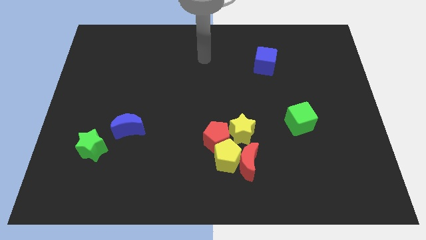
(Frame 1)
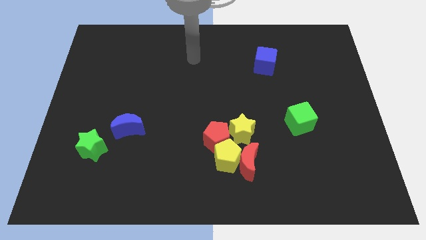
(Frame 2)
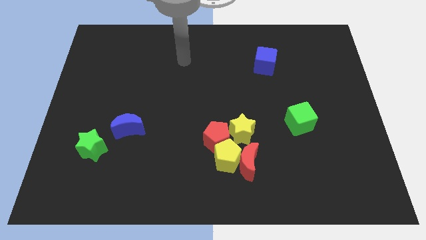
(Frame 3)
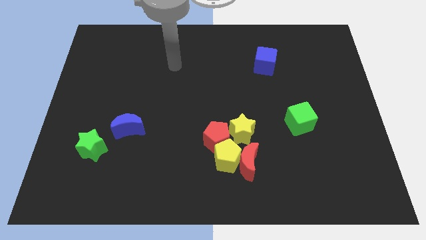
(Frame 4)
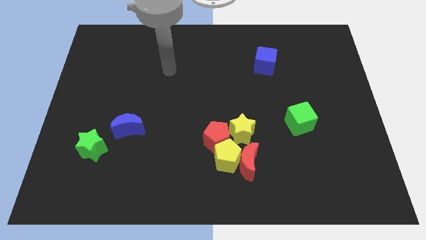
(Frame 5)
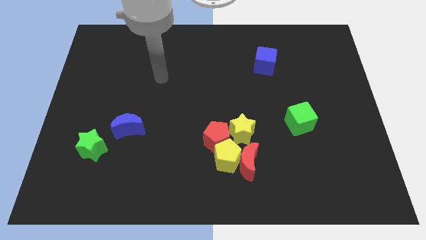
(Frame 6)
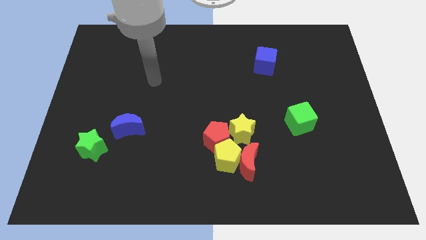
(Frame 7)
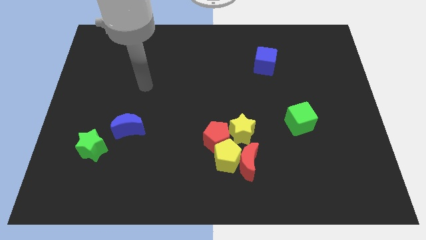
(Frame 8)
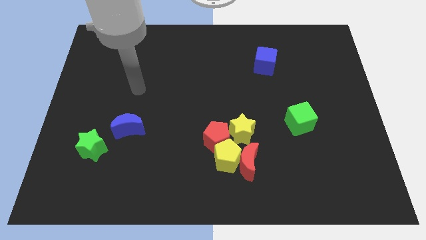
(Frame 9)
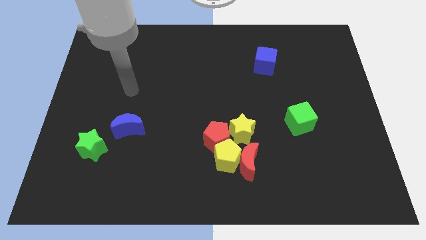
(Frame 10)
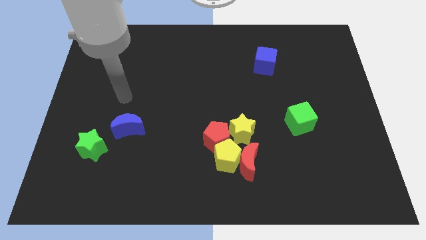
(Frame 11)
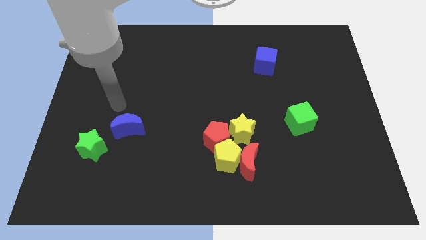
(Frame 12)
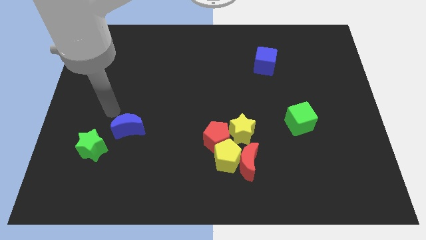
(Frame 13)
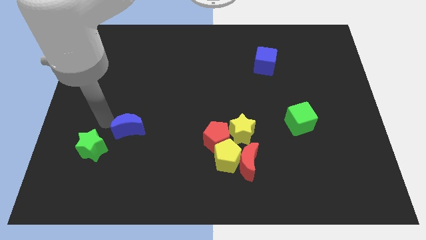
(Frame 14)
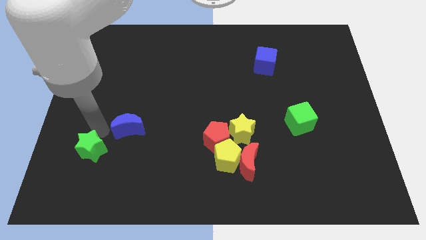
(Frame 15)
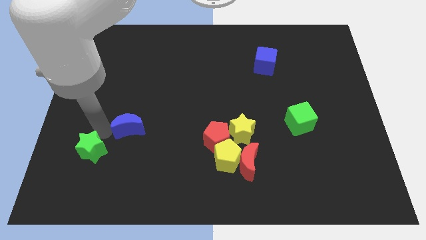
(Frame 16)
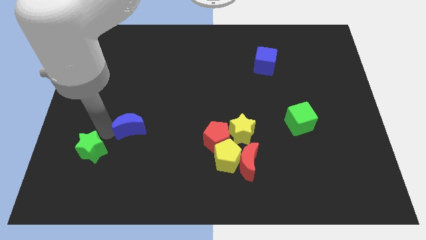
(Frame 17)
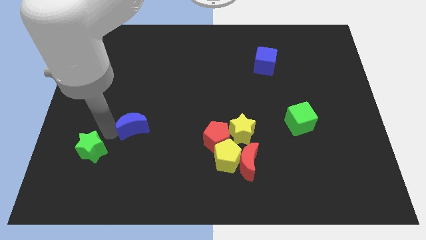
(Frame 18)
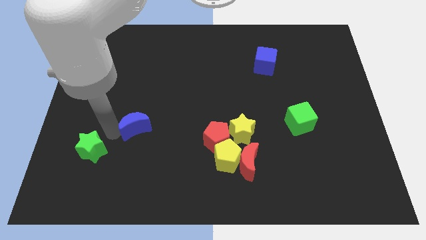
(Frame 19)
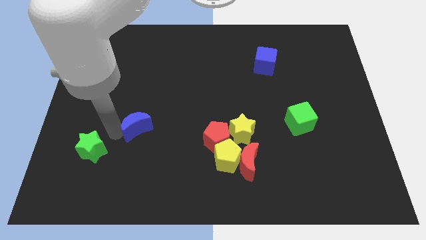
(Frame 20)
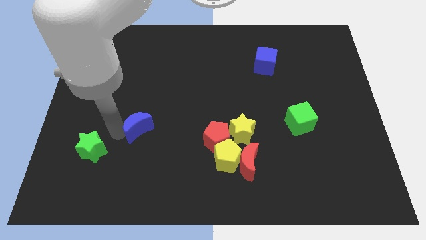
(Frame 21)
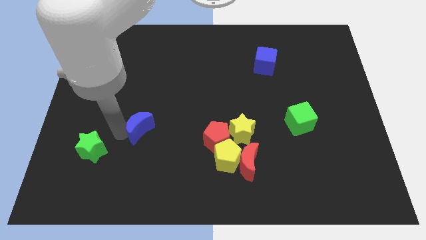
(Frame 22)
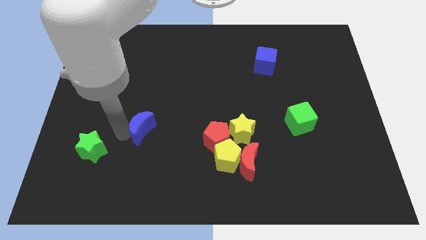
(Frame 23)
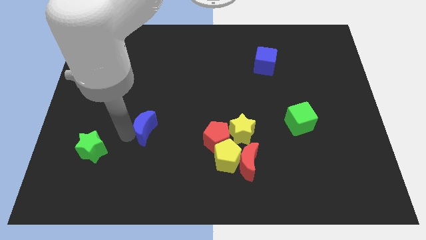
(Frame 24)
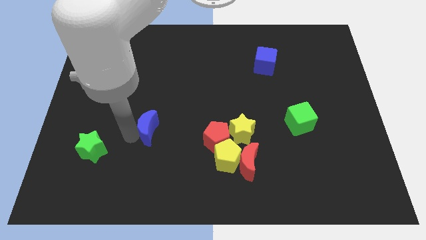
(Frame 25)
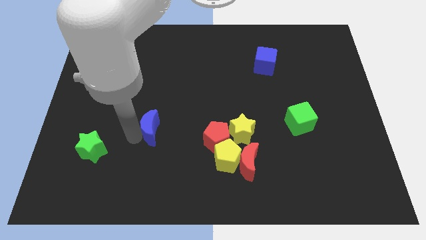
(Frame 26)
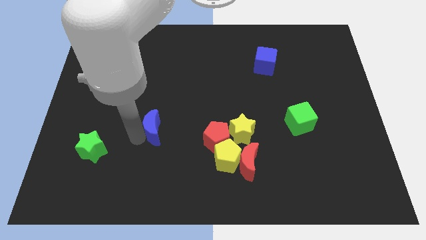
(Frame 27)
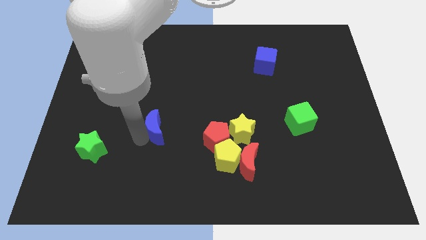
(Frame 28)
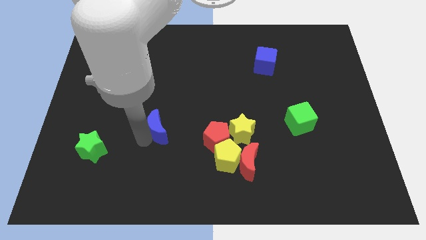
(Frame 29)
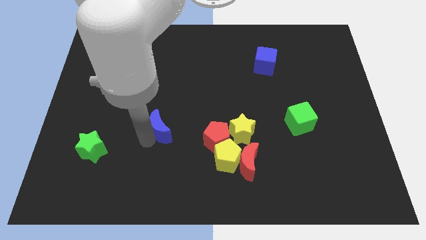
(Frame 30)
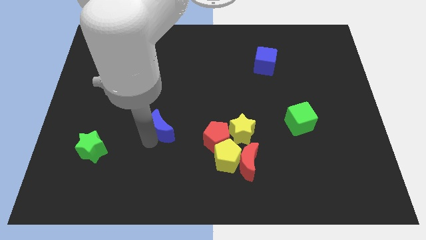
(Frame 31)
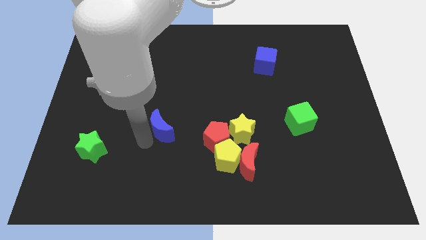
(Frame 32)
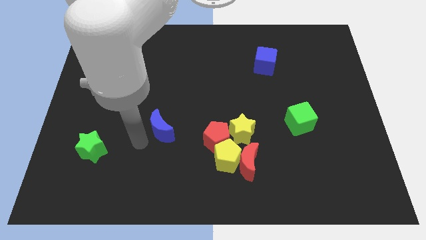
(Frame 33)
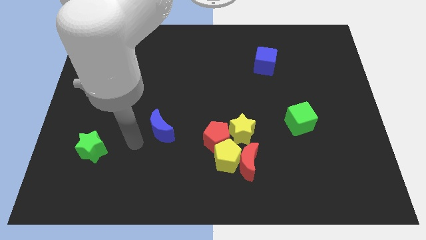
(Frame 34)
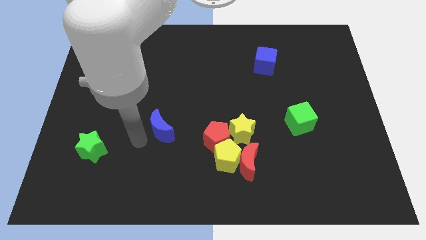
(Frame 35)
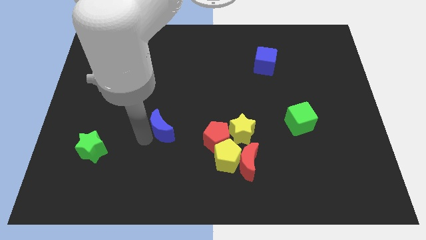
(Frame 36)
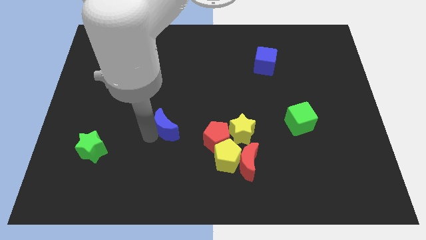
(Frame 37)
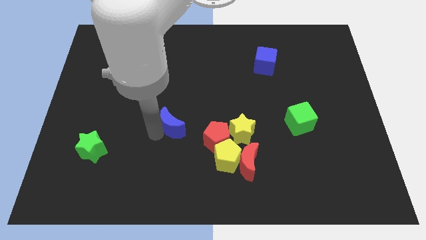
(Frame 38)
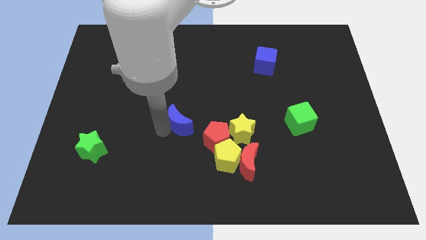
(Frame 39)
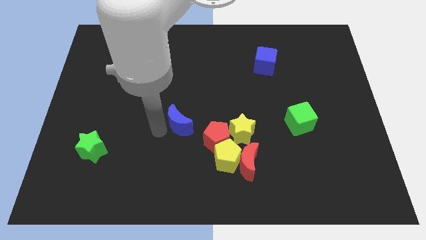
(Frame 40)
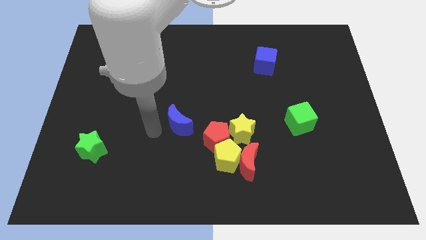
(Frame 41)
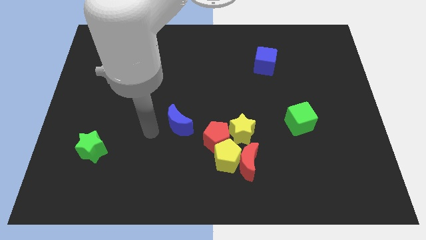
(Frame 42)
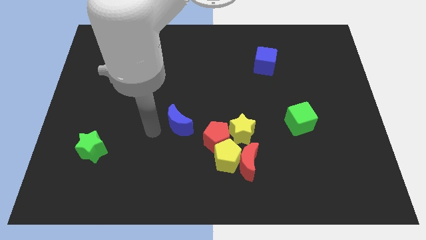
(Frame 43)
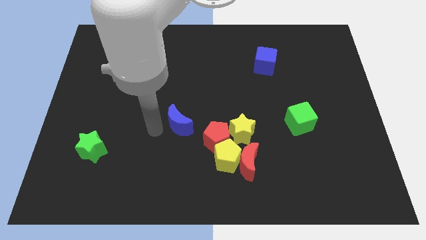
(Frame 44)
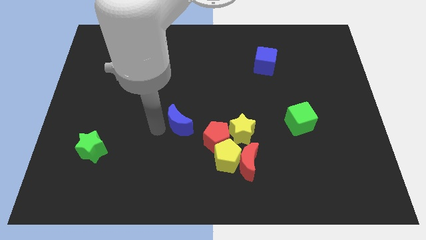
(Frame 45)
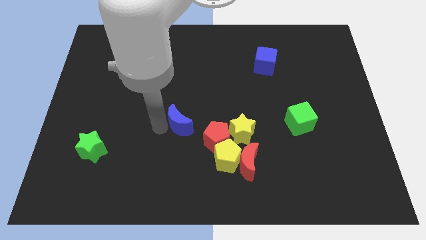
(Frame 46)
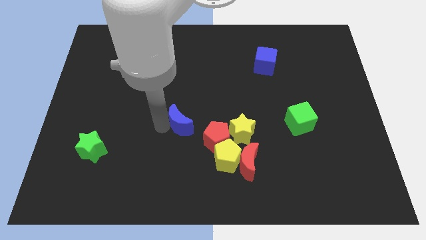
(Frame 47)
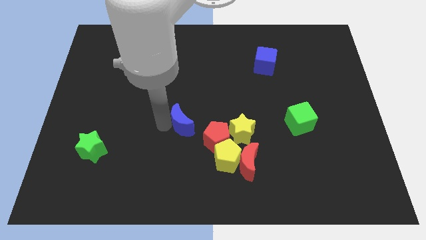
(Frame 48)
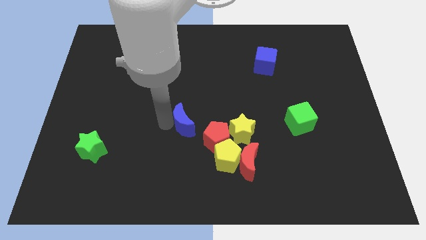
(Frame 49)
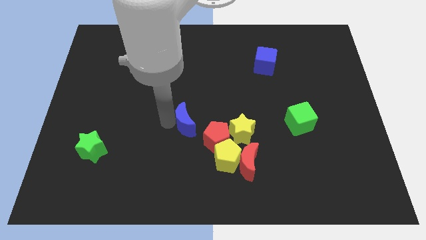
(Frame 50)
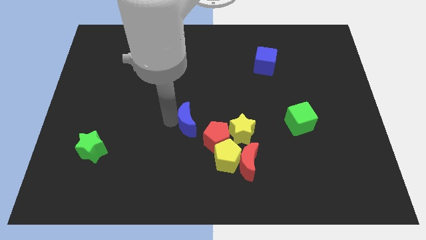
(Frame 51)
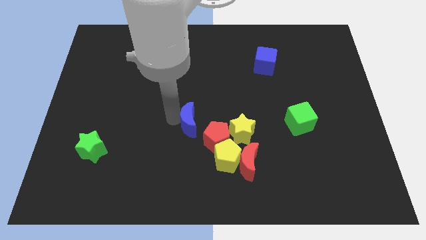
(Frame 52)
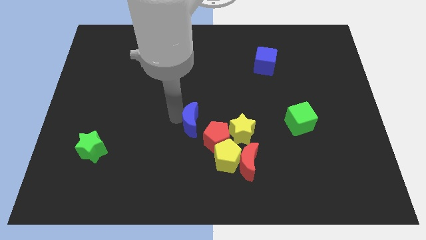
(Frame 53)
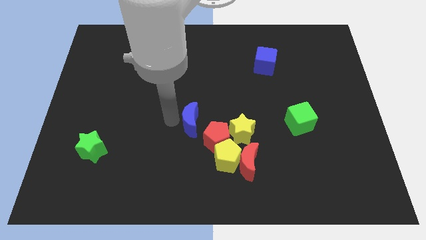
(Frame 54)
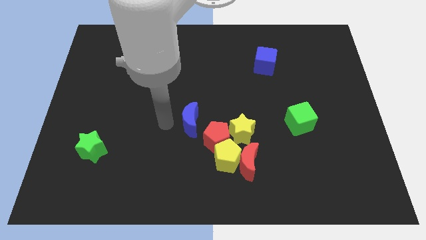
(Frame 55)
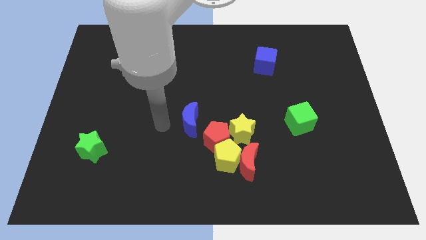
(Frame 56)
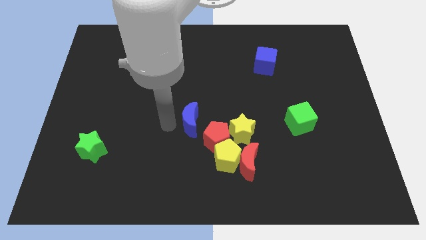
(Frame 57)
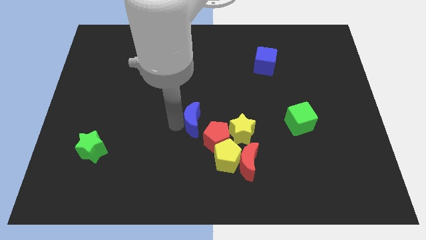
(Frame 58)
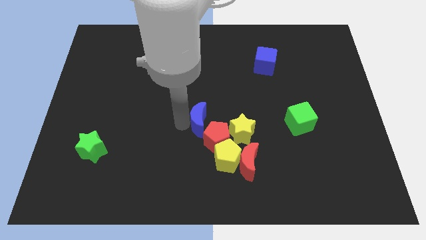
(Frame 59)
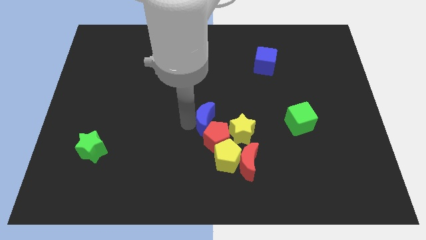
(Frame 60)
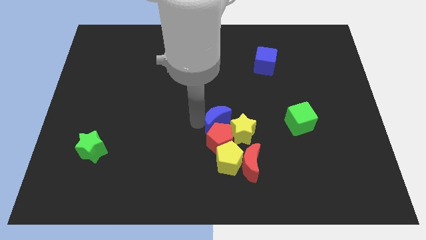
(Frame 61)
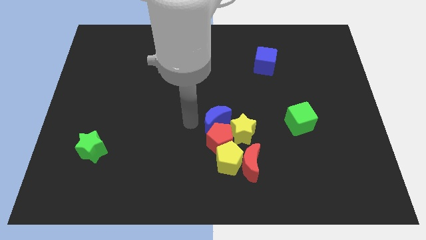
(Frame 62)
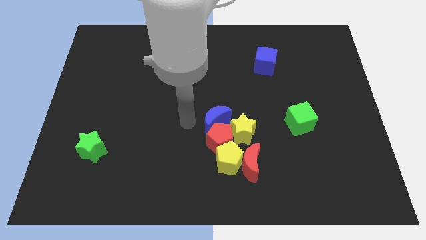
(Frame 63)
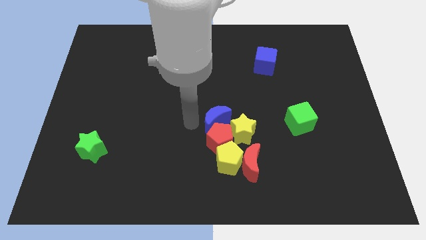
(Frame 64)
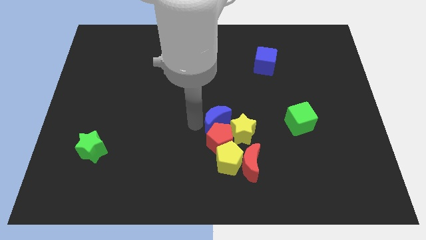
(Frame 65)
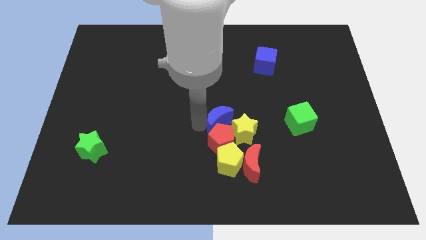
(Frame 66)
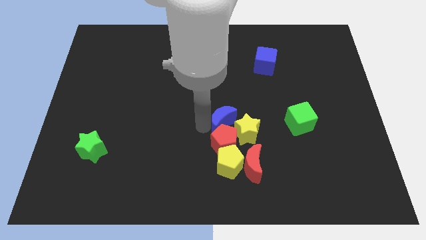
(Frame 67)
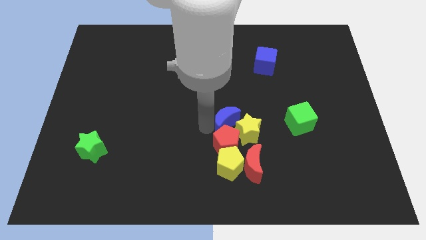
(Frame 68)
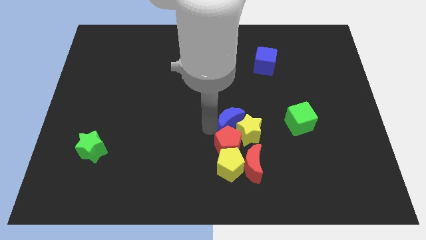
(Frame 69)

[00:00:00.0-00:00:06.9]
push the blue moon to the left side of the green cube
